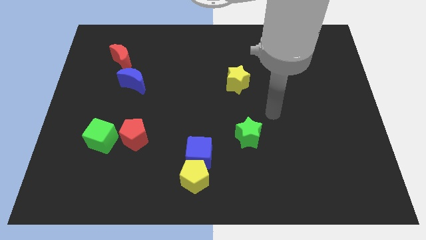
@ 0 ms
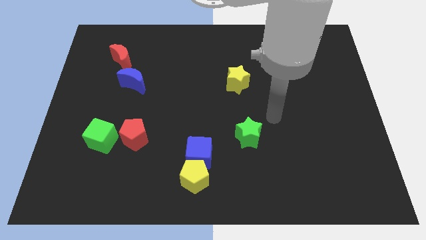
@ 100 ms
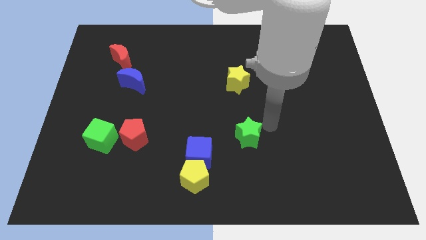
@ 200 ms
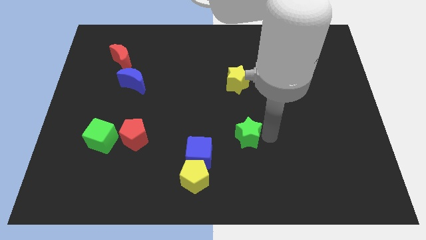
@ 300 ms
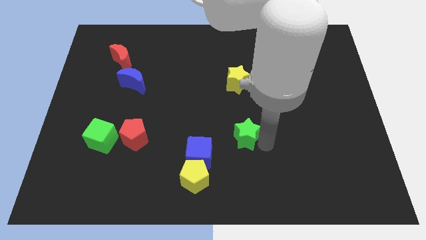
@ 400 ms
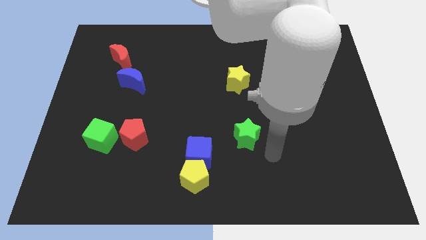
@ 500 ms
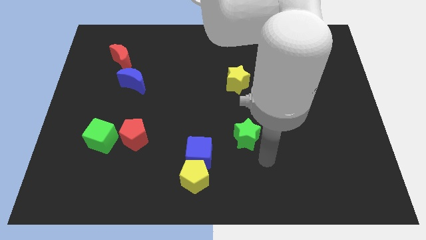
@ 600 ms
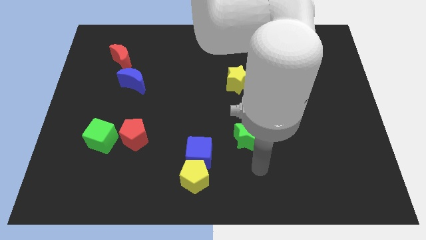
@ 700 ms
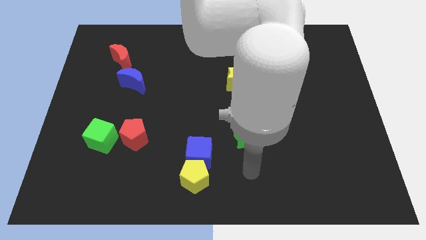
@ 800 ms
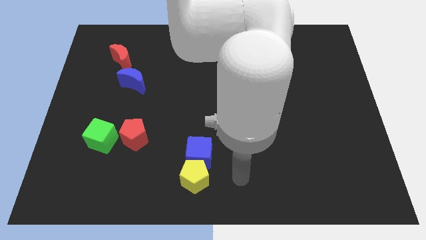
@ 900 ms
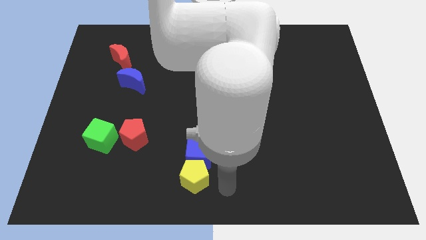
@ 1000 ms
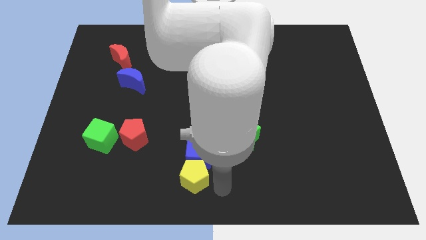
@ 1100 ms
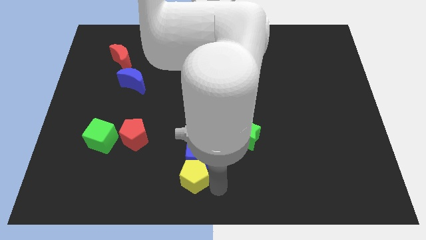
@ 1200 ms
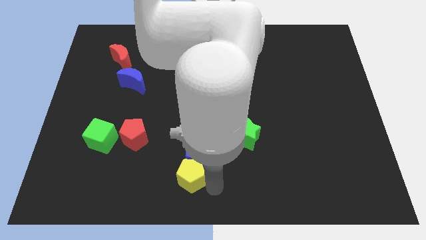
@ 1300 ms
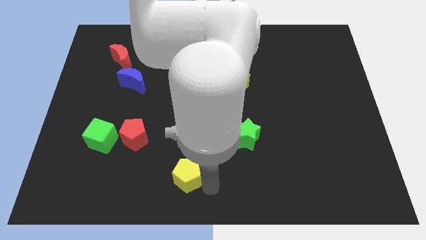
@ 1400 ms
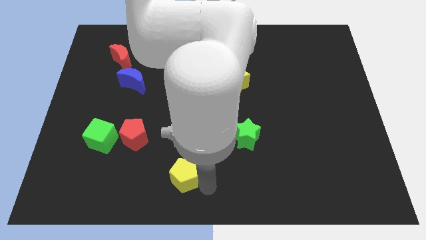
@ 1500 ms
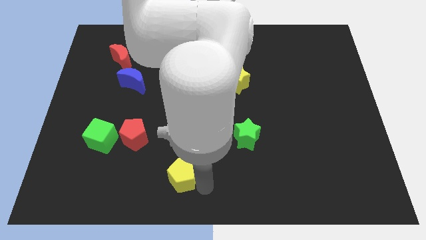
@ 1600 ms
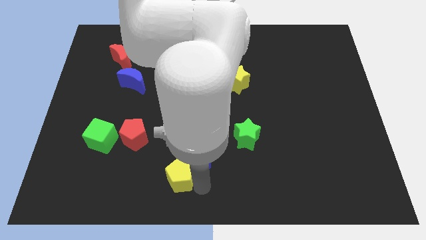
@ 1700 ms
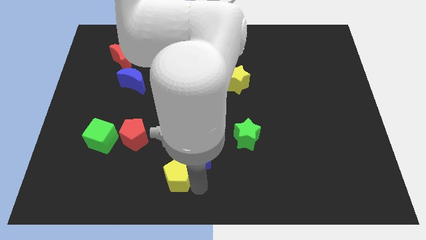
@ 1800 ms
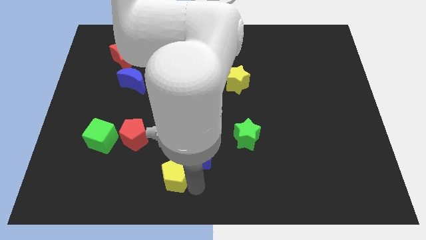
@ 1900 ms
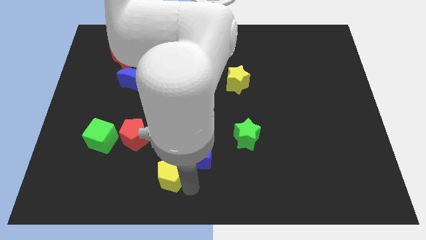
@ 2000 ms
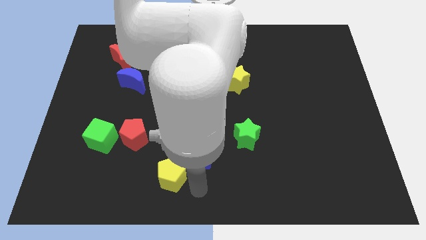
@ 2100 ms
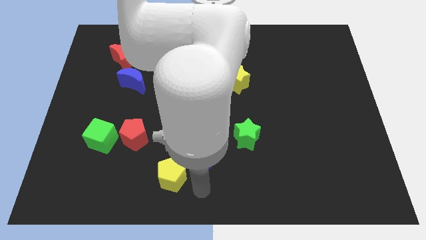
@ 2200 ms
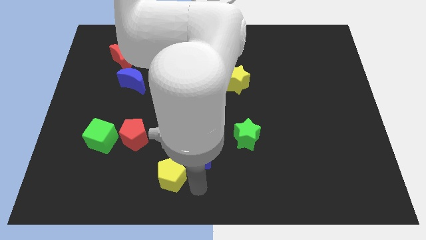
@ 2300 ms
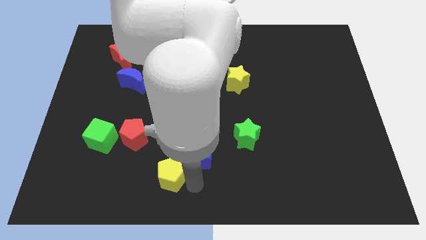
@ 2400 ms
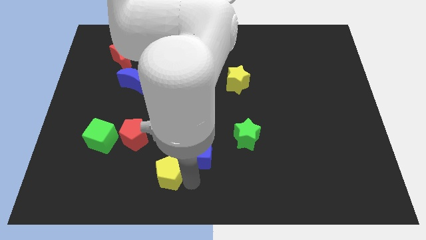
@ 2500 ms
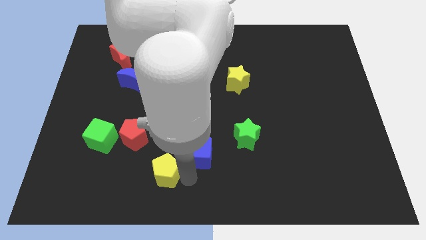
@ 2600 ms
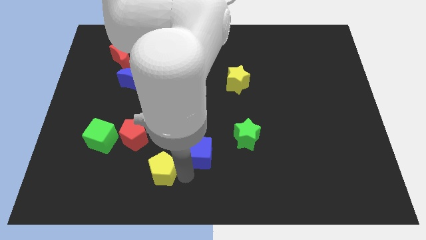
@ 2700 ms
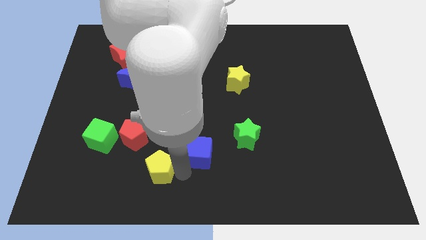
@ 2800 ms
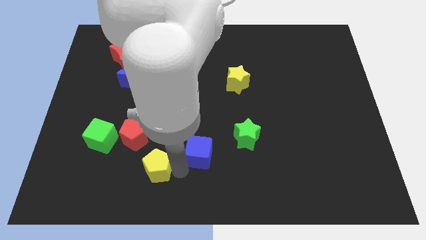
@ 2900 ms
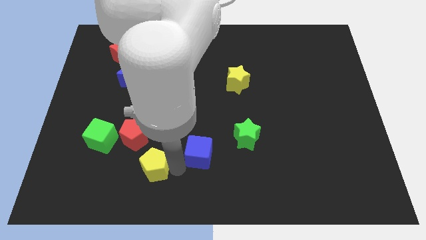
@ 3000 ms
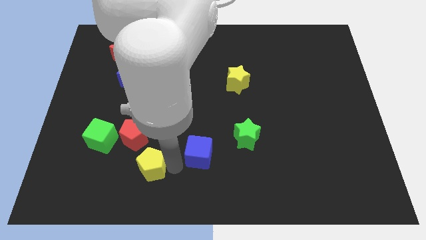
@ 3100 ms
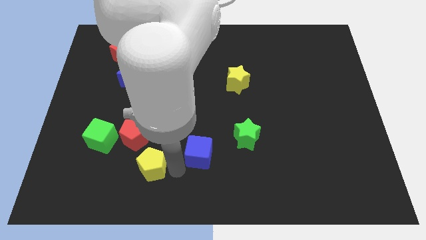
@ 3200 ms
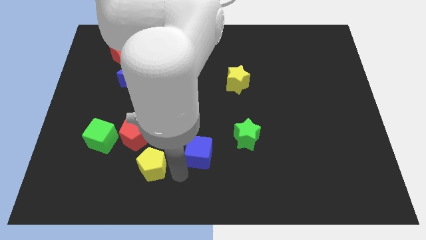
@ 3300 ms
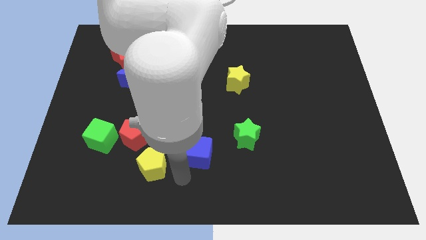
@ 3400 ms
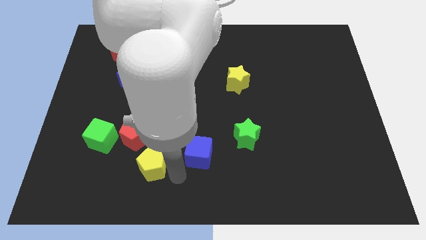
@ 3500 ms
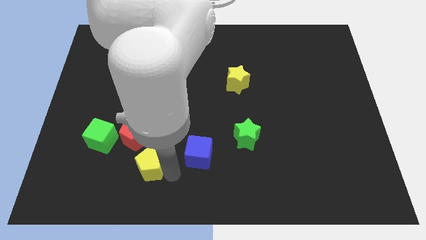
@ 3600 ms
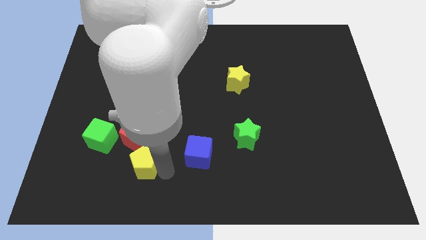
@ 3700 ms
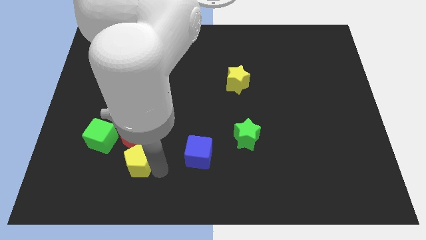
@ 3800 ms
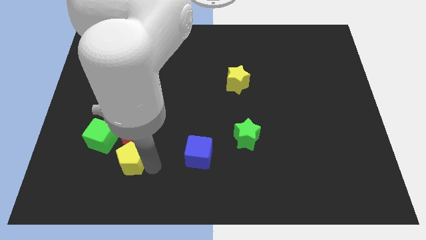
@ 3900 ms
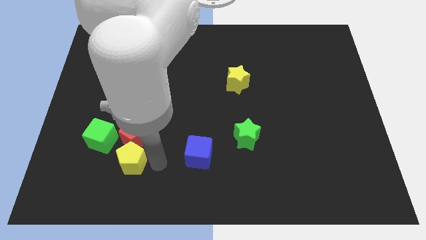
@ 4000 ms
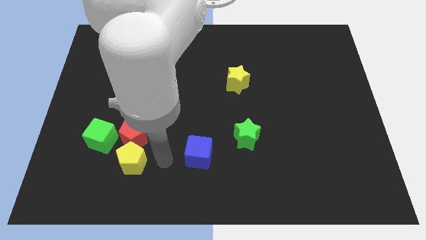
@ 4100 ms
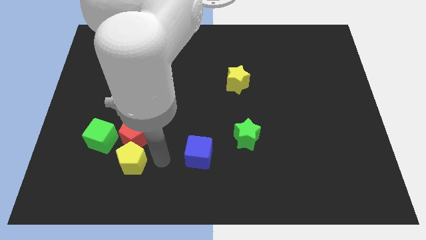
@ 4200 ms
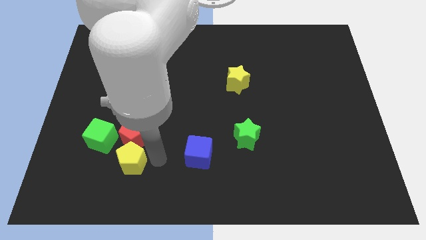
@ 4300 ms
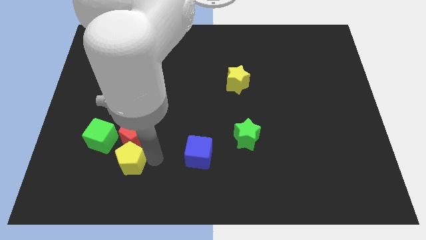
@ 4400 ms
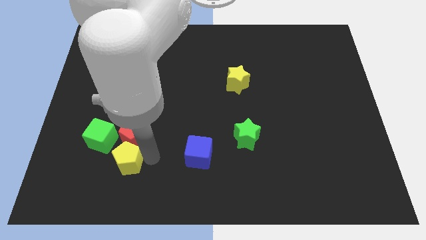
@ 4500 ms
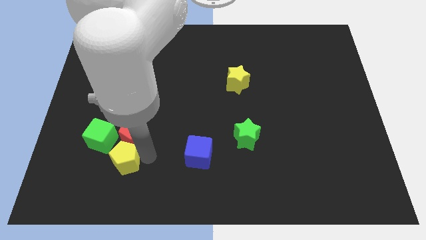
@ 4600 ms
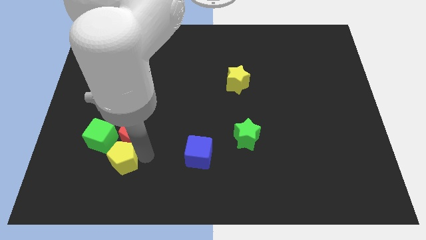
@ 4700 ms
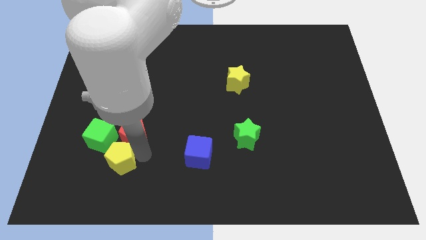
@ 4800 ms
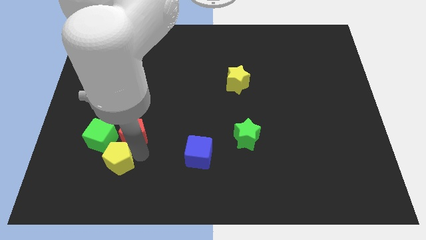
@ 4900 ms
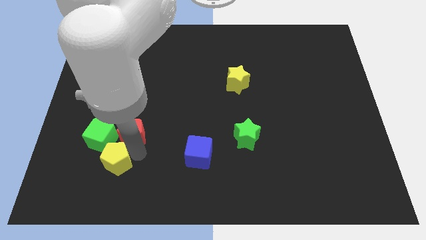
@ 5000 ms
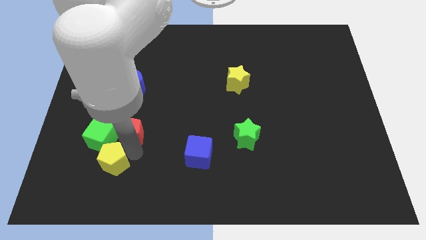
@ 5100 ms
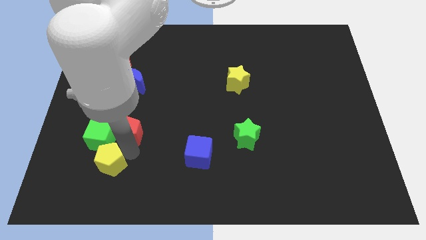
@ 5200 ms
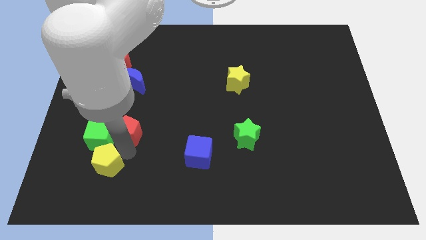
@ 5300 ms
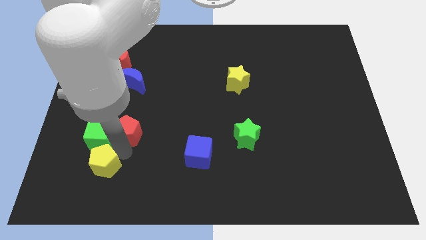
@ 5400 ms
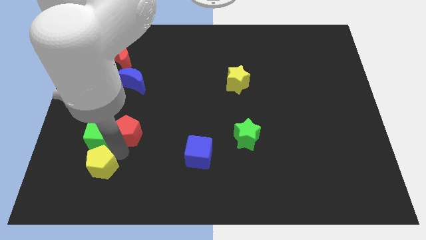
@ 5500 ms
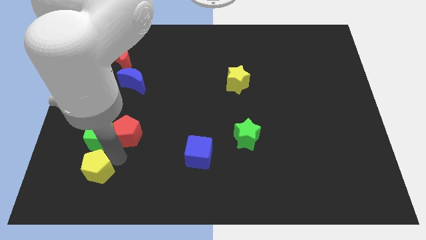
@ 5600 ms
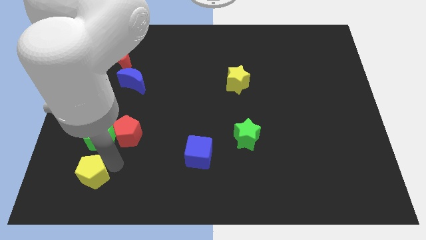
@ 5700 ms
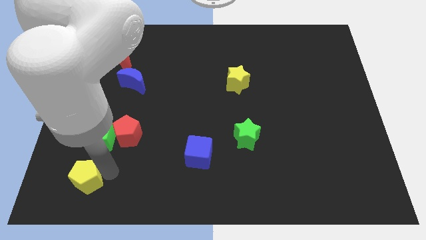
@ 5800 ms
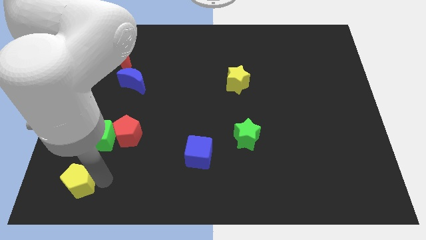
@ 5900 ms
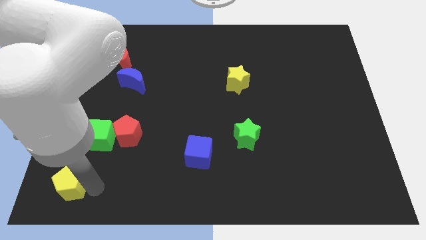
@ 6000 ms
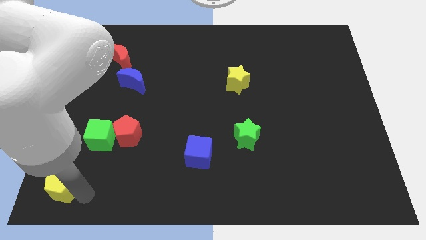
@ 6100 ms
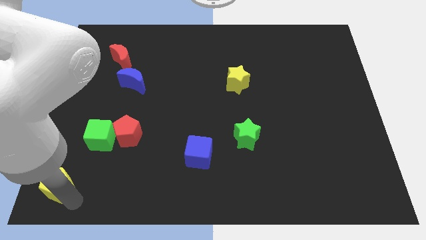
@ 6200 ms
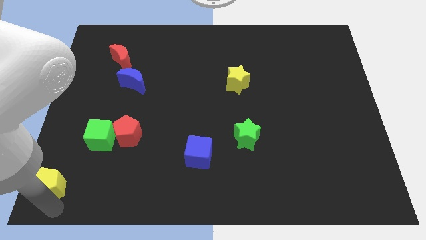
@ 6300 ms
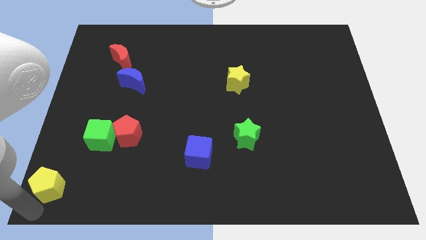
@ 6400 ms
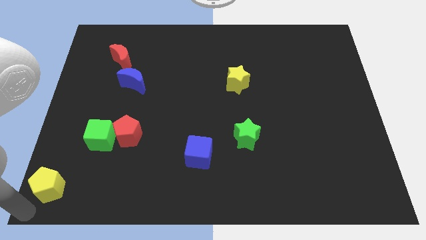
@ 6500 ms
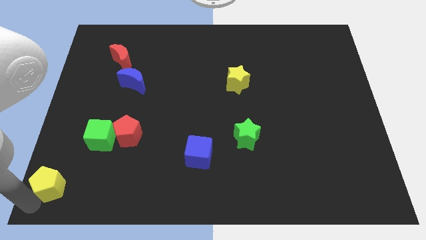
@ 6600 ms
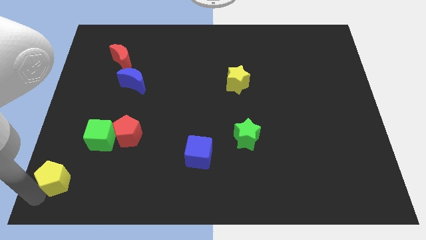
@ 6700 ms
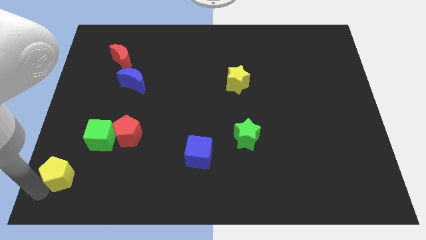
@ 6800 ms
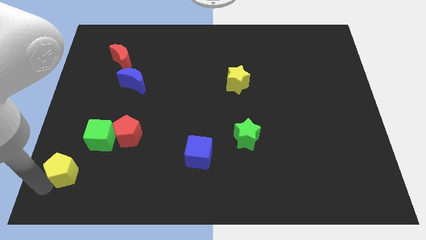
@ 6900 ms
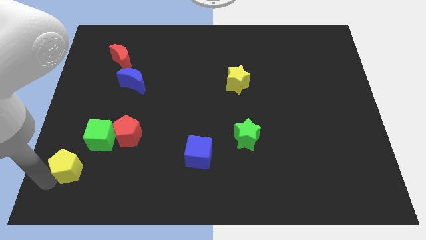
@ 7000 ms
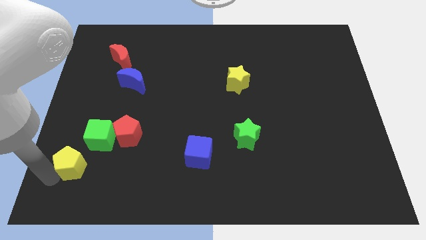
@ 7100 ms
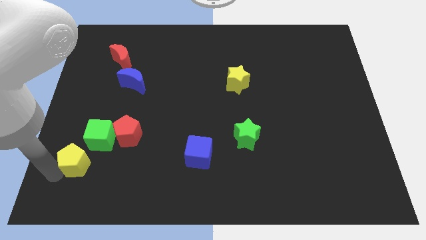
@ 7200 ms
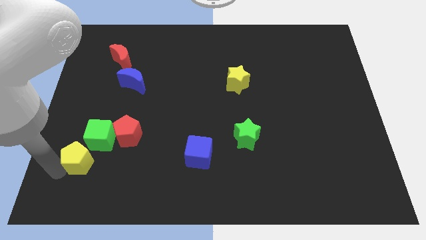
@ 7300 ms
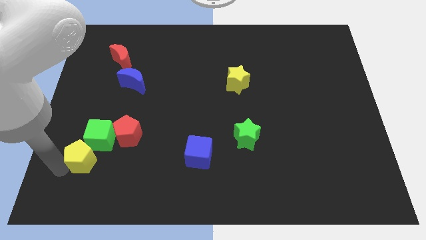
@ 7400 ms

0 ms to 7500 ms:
move the yellow pentagon towards the green cube

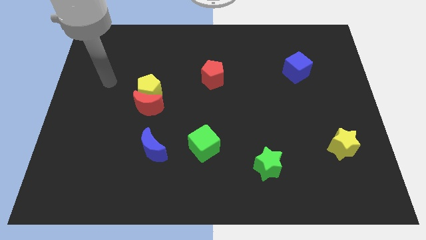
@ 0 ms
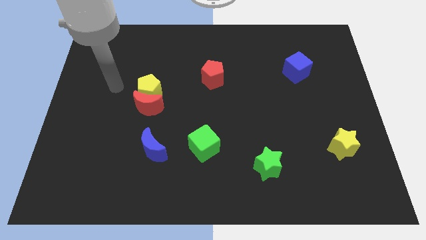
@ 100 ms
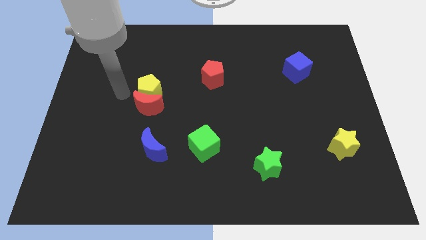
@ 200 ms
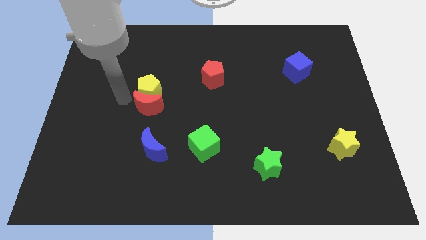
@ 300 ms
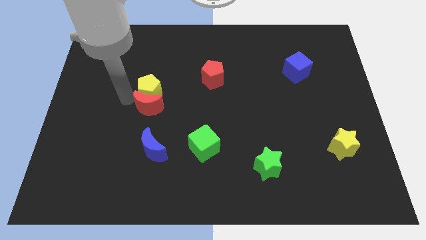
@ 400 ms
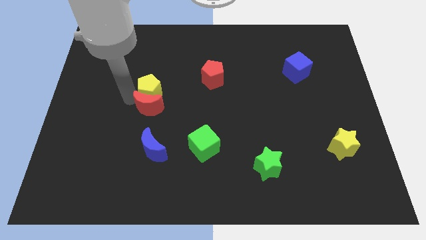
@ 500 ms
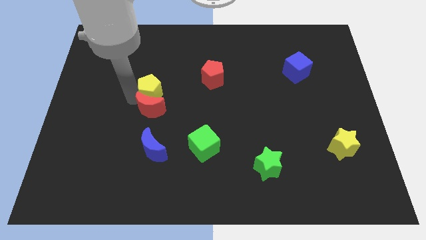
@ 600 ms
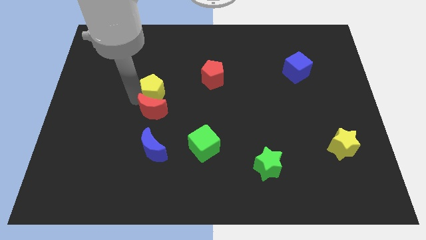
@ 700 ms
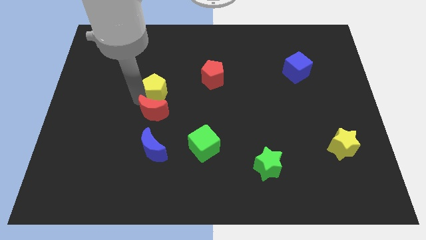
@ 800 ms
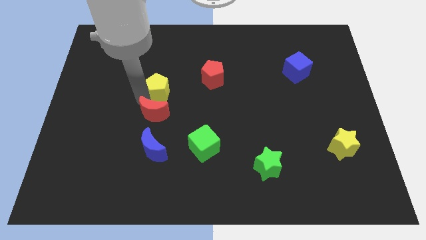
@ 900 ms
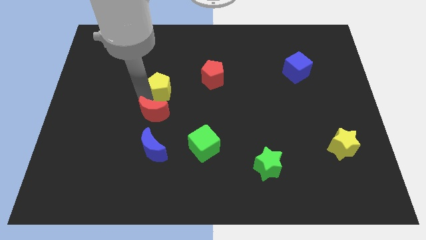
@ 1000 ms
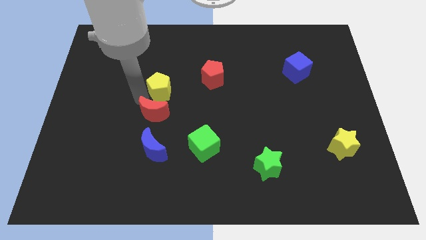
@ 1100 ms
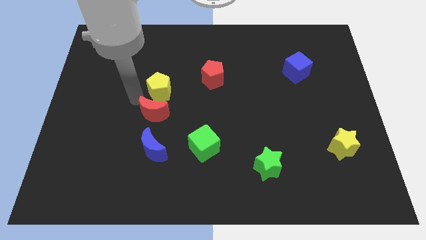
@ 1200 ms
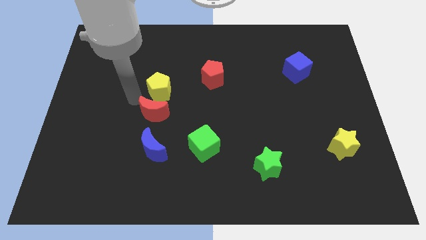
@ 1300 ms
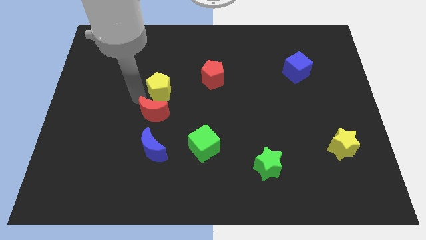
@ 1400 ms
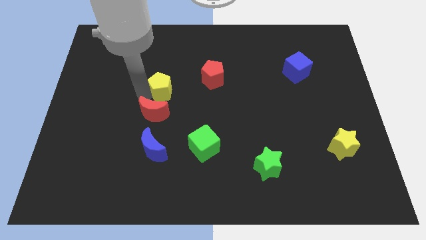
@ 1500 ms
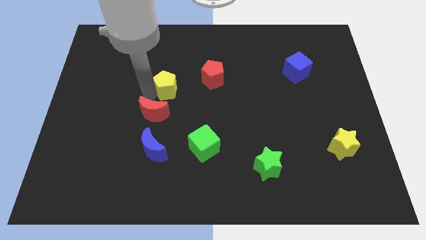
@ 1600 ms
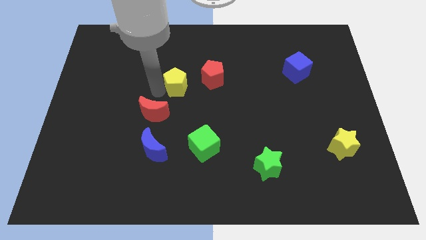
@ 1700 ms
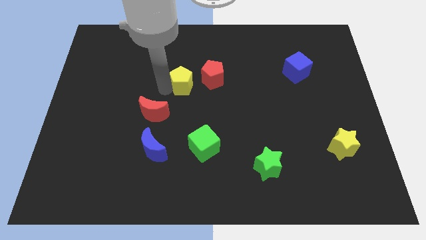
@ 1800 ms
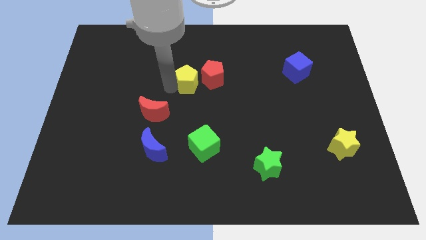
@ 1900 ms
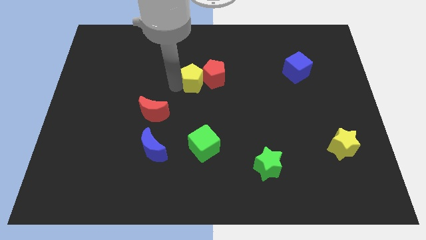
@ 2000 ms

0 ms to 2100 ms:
slide the yellow pentagon close to the red pentagon
